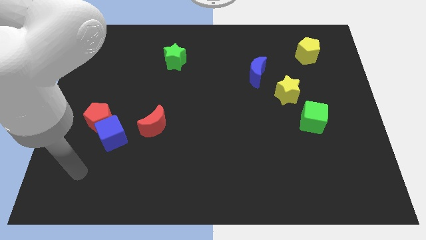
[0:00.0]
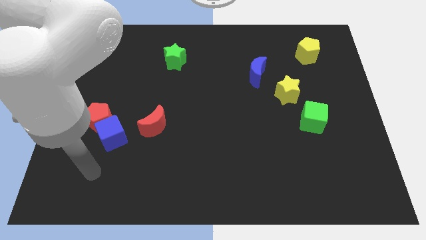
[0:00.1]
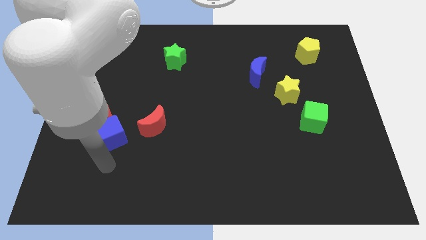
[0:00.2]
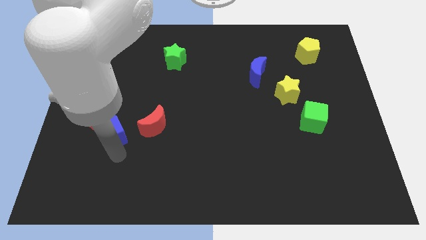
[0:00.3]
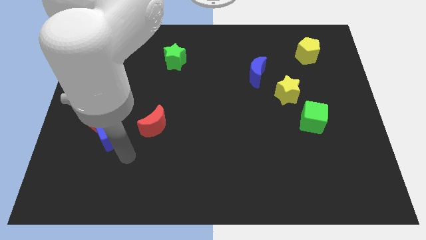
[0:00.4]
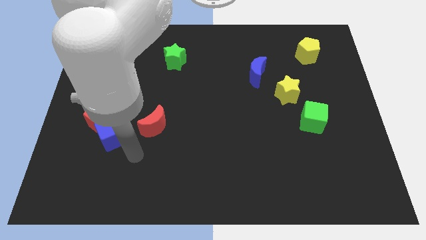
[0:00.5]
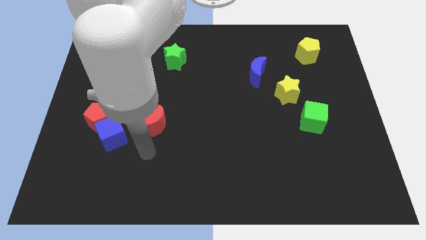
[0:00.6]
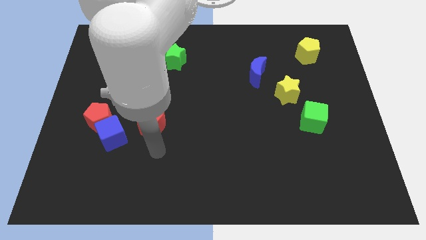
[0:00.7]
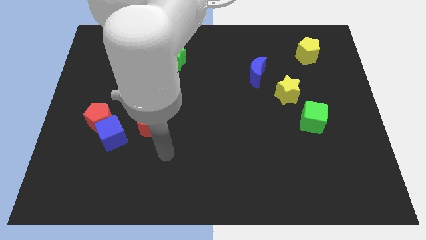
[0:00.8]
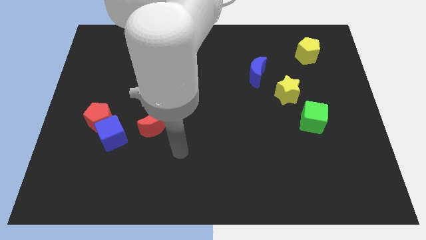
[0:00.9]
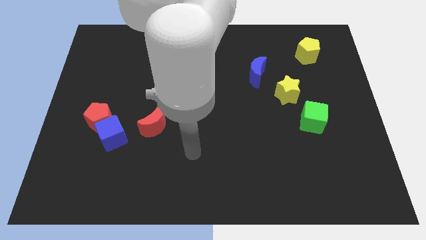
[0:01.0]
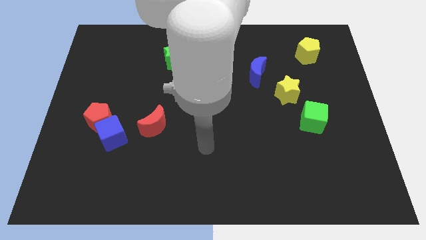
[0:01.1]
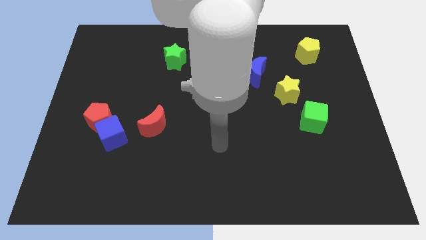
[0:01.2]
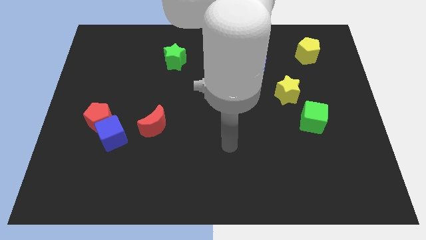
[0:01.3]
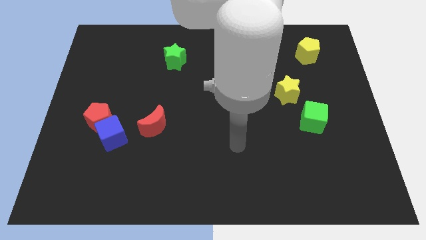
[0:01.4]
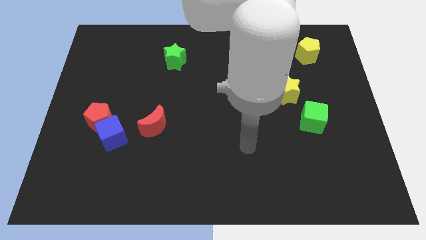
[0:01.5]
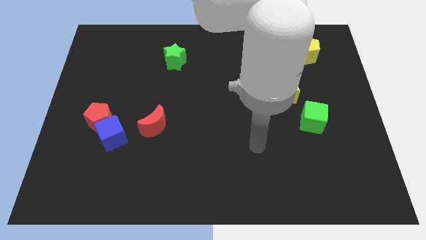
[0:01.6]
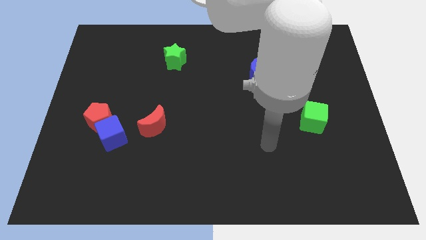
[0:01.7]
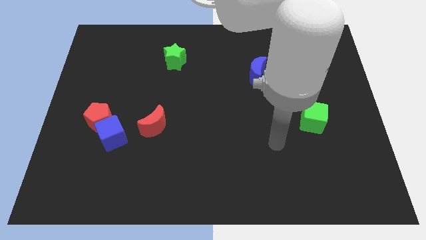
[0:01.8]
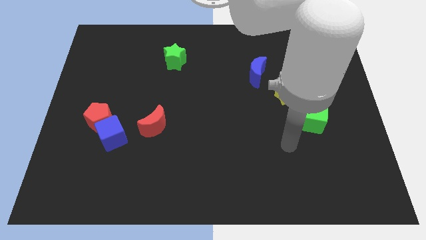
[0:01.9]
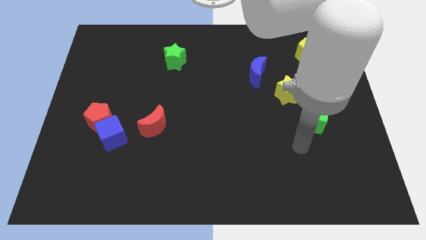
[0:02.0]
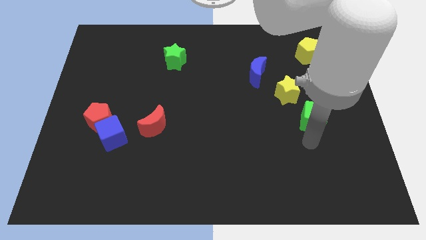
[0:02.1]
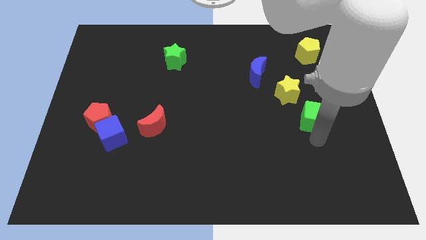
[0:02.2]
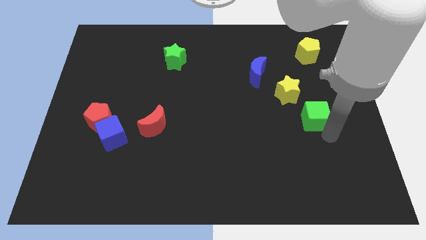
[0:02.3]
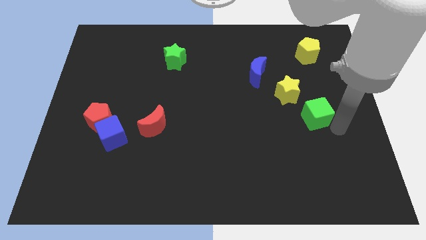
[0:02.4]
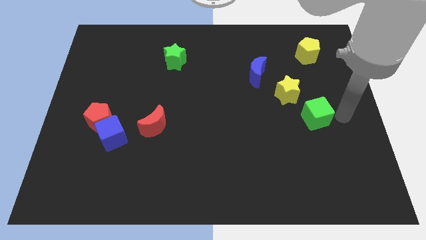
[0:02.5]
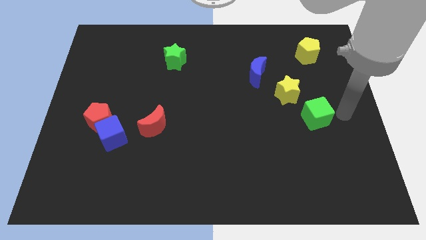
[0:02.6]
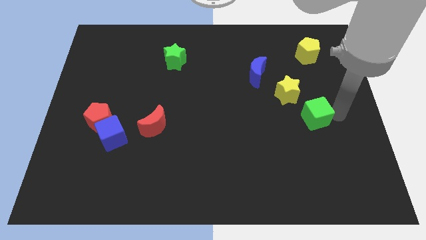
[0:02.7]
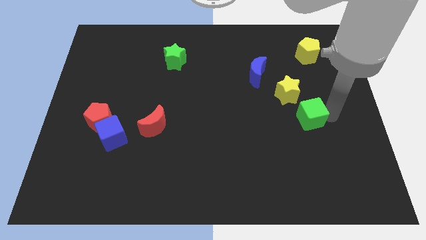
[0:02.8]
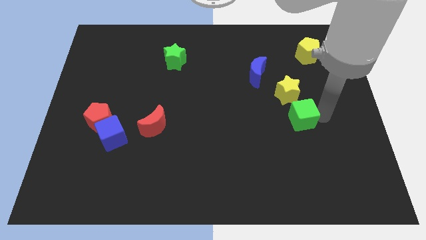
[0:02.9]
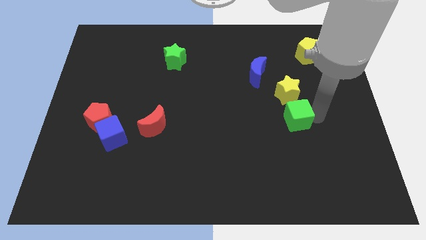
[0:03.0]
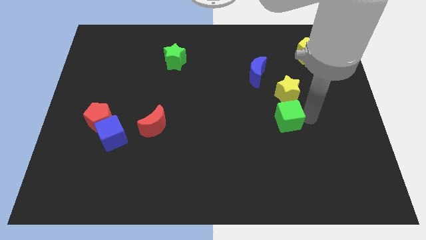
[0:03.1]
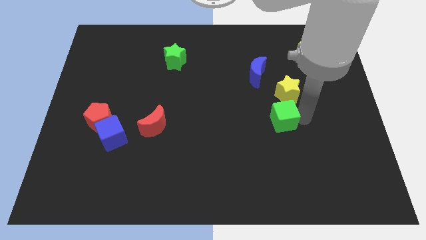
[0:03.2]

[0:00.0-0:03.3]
move the green cube left a little bit

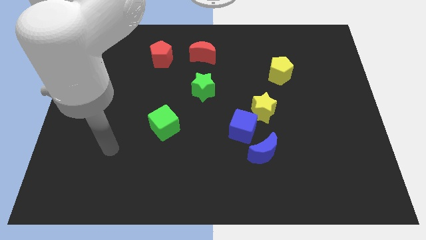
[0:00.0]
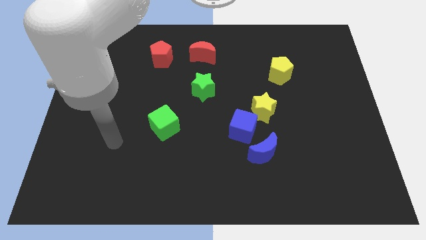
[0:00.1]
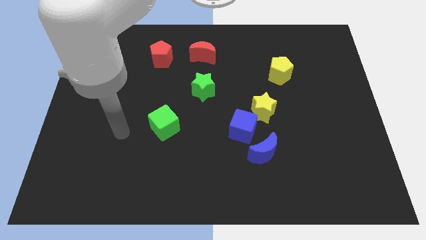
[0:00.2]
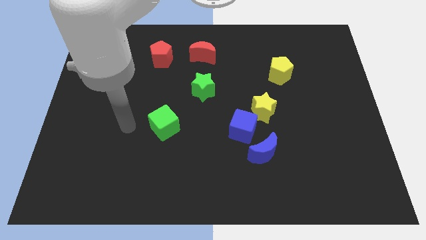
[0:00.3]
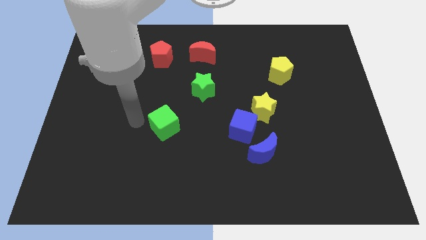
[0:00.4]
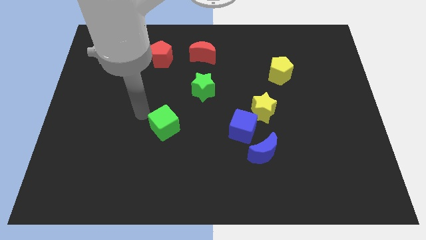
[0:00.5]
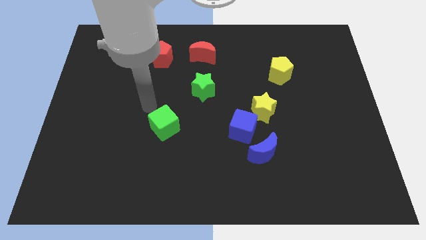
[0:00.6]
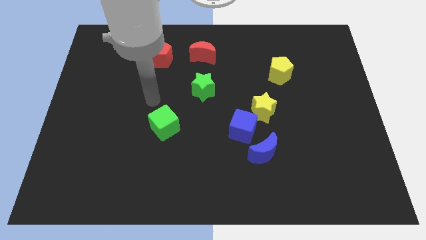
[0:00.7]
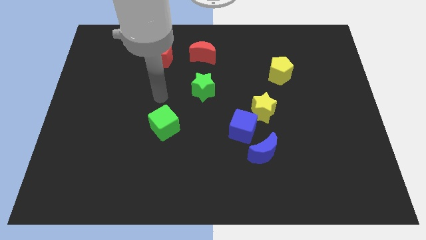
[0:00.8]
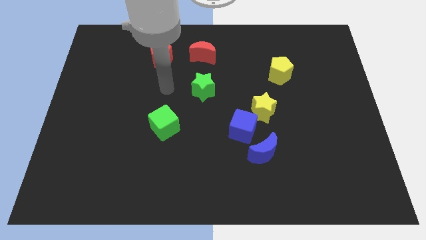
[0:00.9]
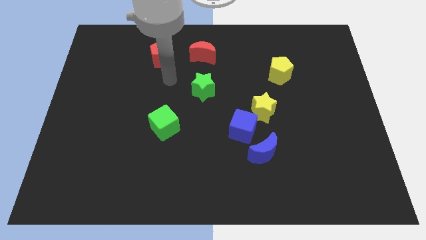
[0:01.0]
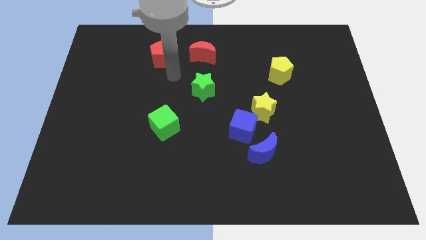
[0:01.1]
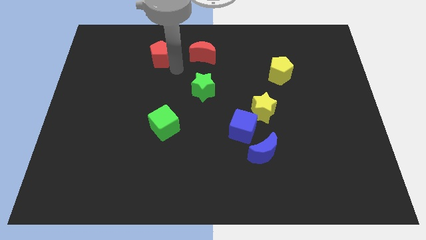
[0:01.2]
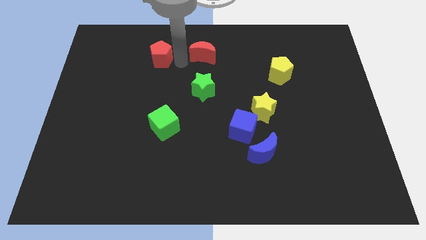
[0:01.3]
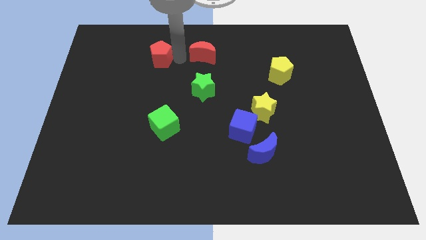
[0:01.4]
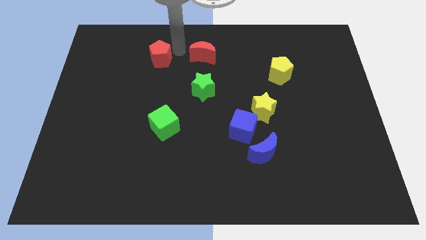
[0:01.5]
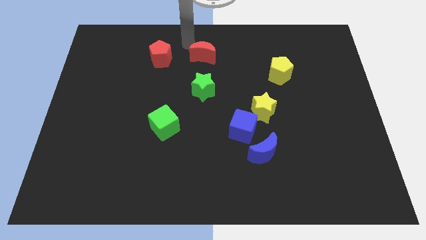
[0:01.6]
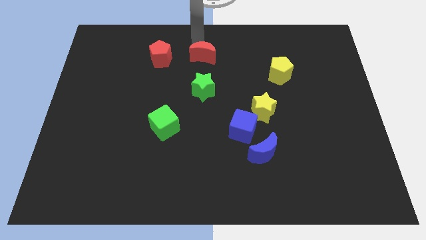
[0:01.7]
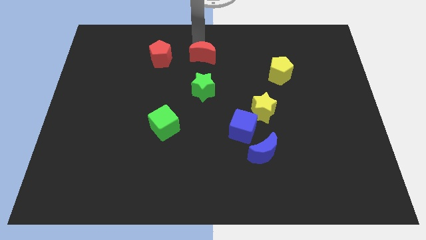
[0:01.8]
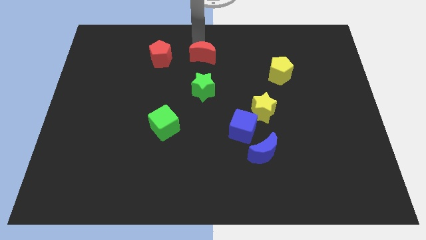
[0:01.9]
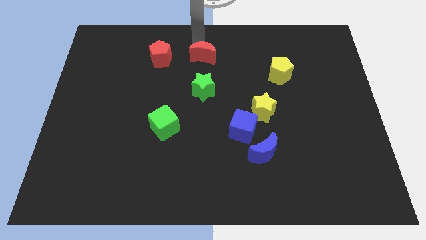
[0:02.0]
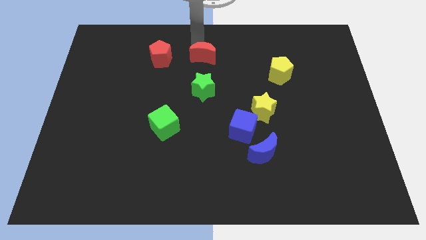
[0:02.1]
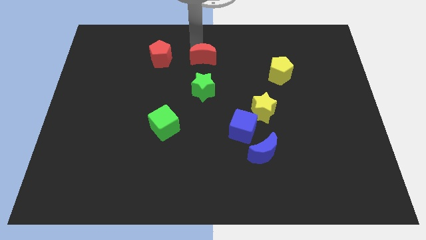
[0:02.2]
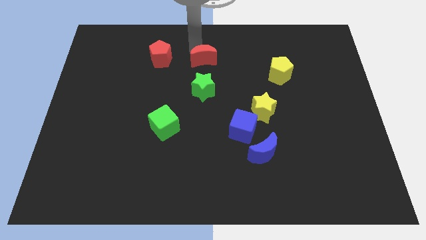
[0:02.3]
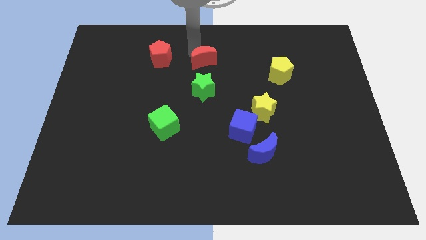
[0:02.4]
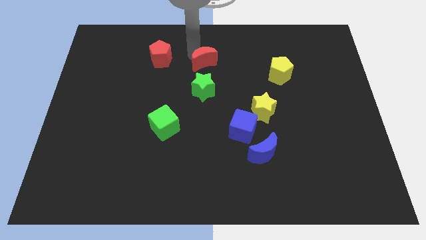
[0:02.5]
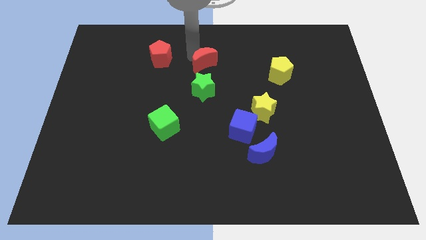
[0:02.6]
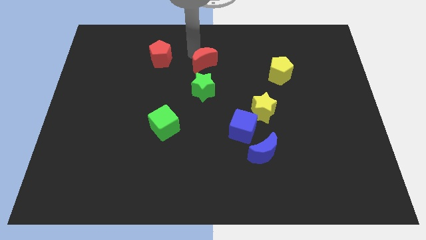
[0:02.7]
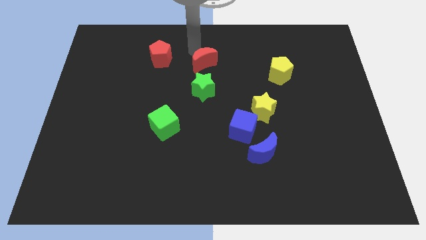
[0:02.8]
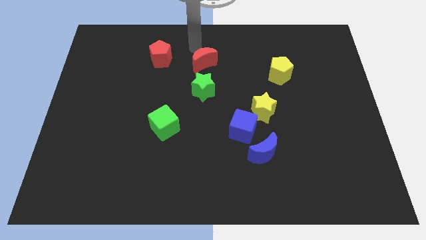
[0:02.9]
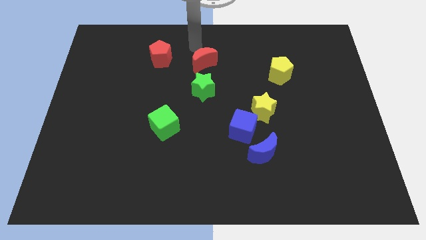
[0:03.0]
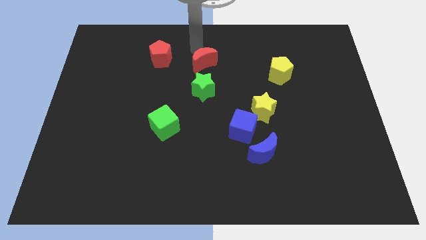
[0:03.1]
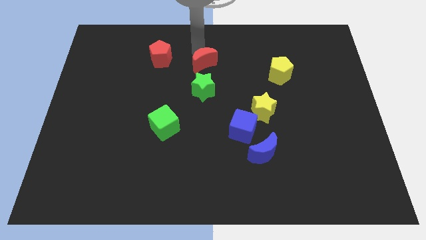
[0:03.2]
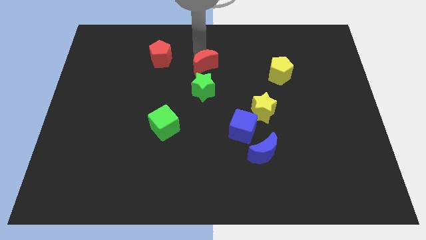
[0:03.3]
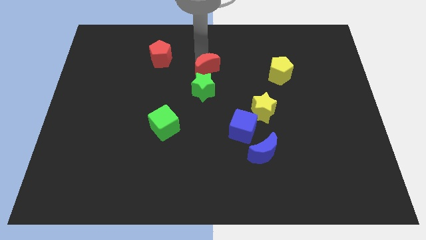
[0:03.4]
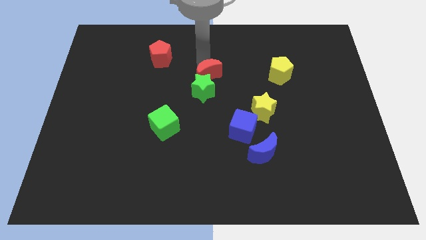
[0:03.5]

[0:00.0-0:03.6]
slightly slide the red moon downwards

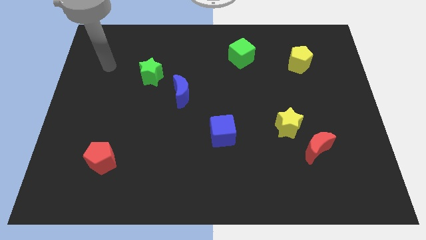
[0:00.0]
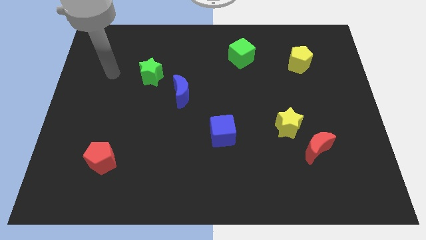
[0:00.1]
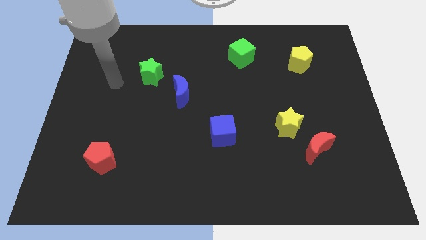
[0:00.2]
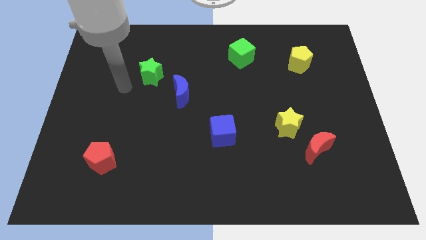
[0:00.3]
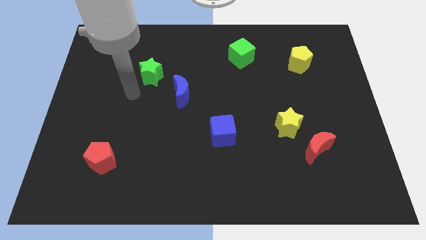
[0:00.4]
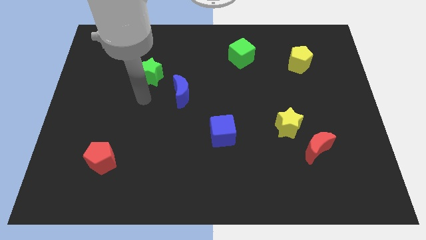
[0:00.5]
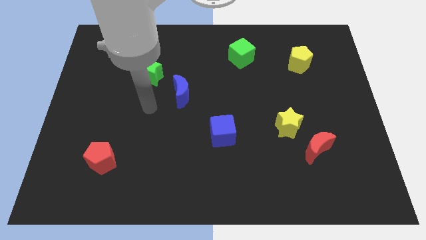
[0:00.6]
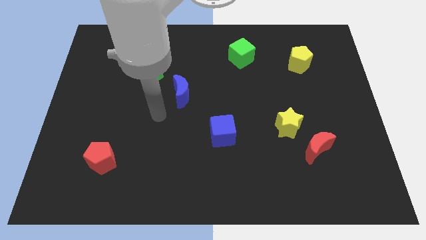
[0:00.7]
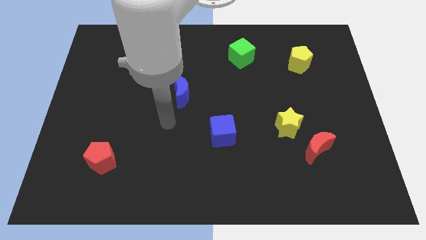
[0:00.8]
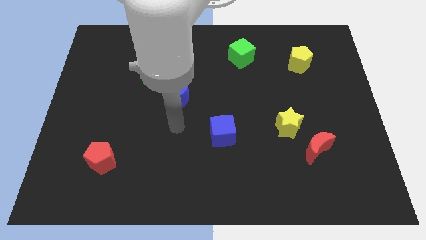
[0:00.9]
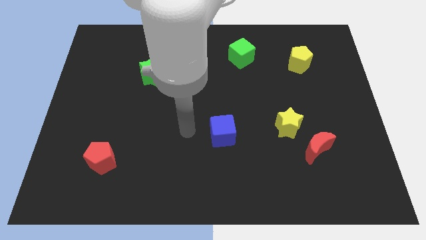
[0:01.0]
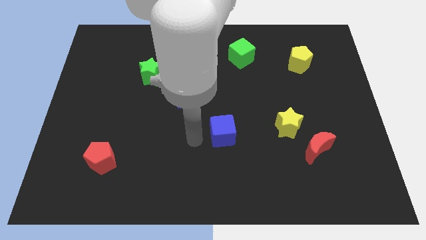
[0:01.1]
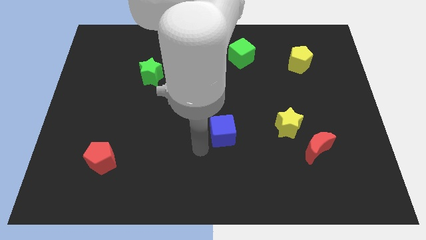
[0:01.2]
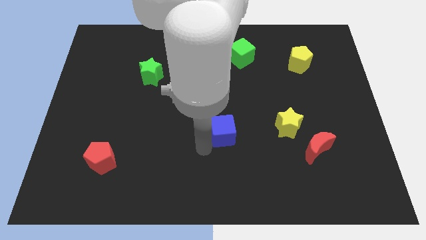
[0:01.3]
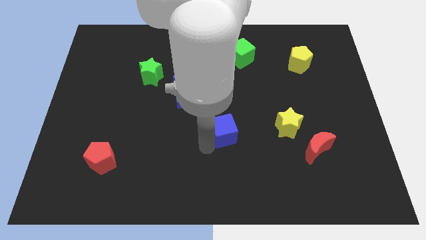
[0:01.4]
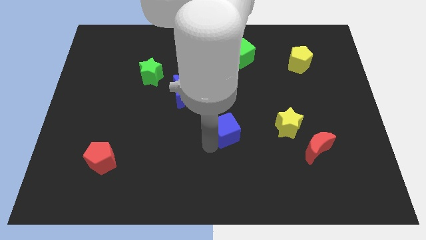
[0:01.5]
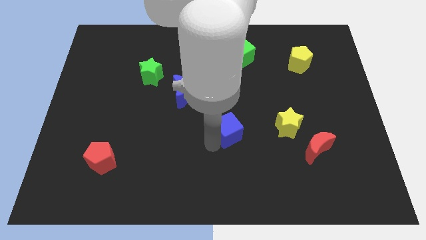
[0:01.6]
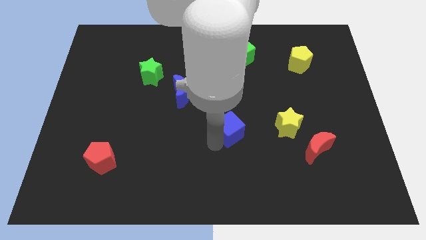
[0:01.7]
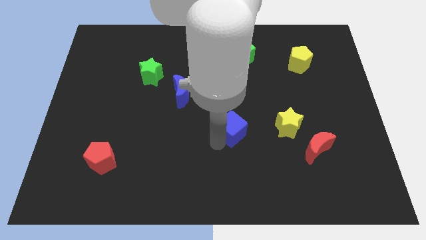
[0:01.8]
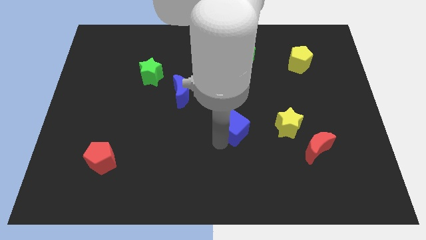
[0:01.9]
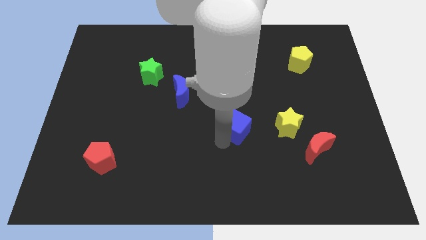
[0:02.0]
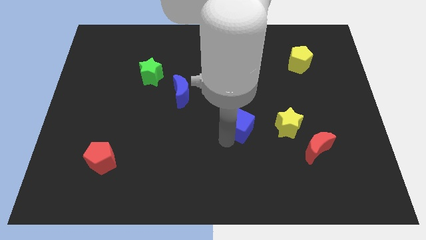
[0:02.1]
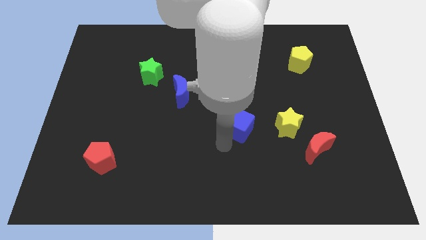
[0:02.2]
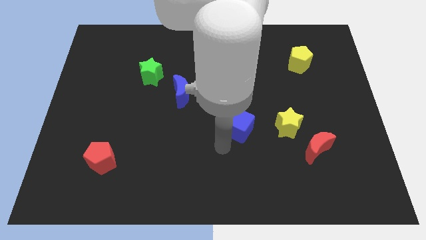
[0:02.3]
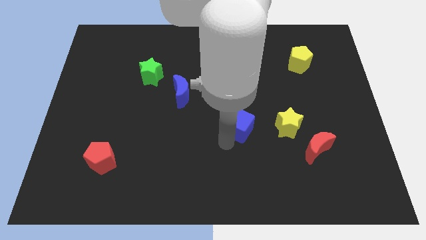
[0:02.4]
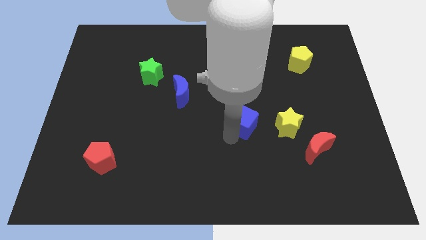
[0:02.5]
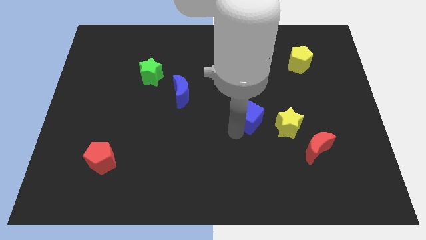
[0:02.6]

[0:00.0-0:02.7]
move the blue cube upwards and right diagonally a little
